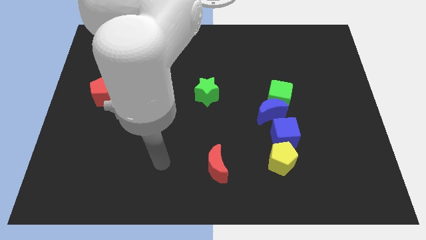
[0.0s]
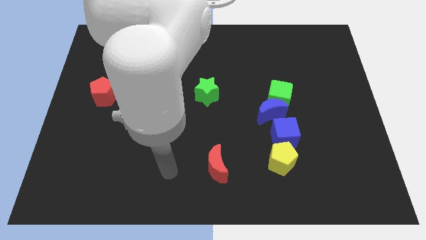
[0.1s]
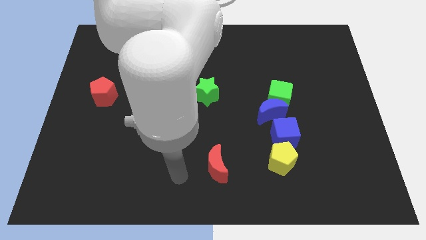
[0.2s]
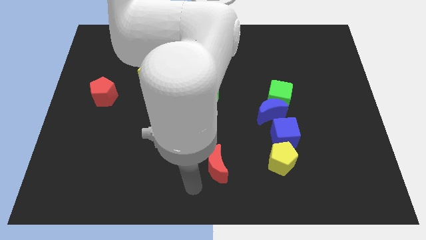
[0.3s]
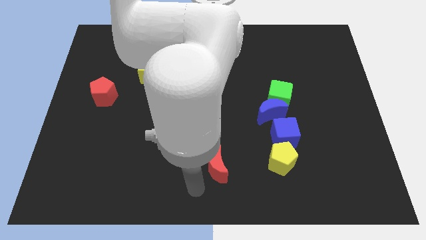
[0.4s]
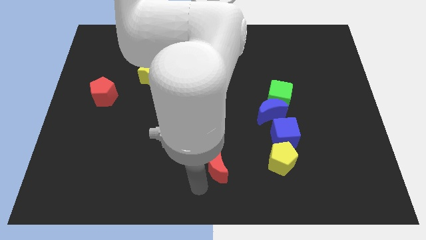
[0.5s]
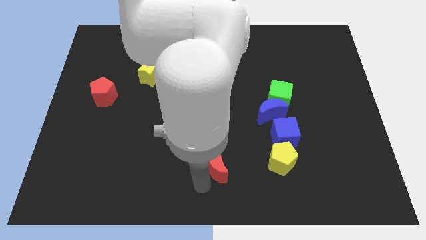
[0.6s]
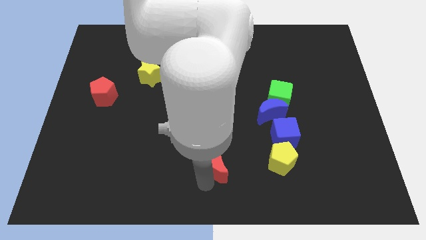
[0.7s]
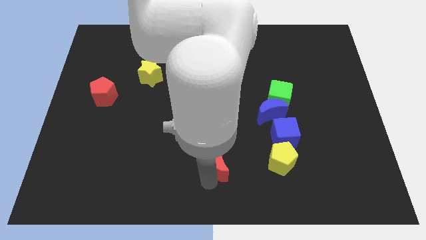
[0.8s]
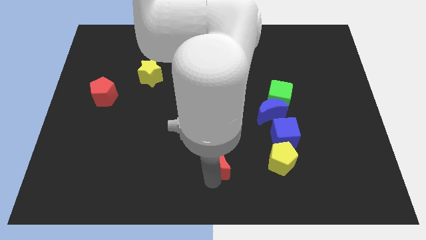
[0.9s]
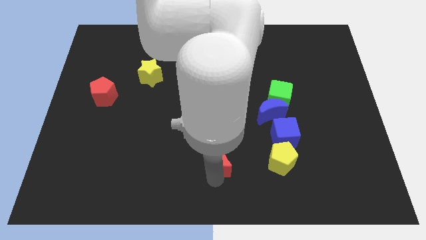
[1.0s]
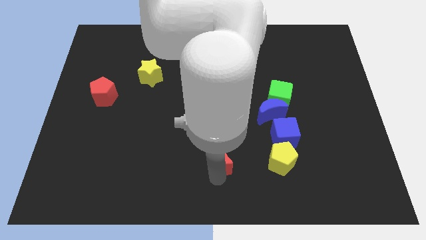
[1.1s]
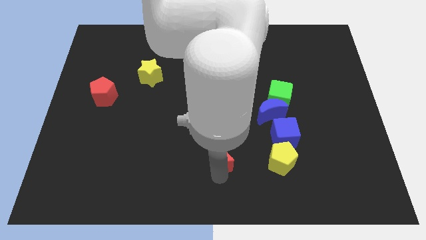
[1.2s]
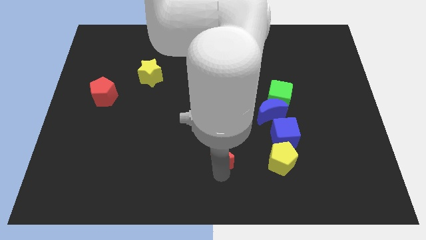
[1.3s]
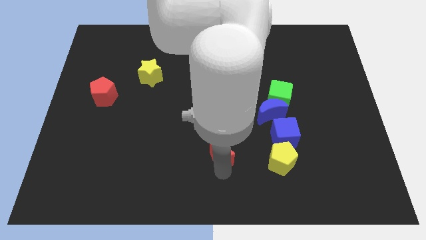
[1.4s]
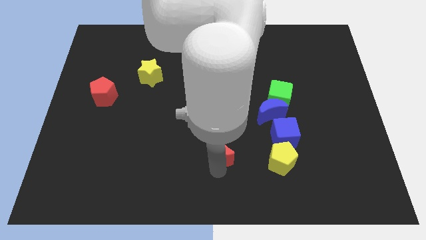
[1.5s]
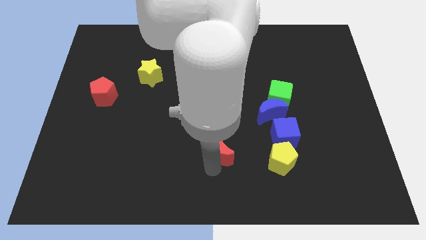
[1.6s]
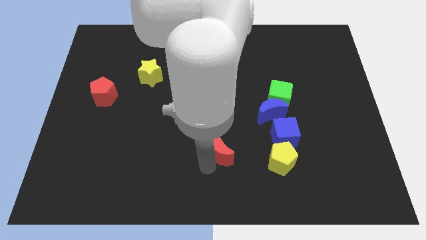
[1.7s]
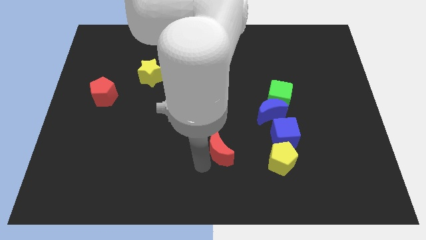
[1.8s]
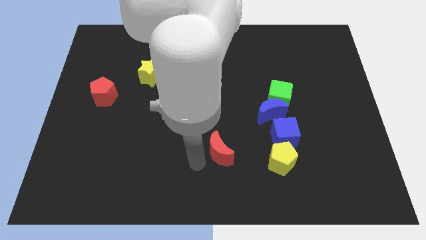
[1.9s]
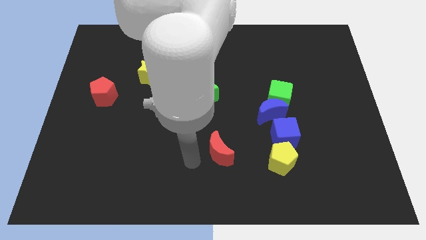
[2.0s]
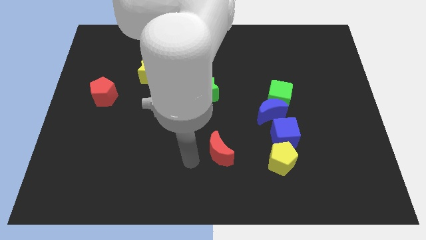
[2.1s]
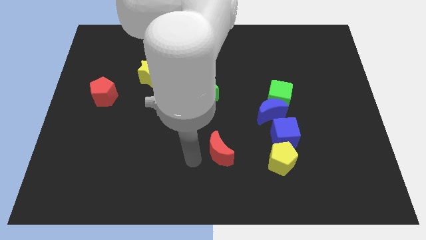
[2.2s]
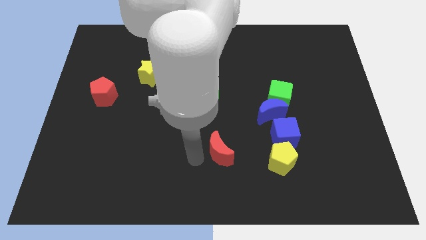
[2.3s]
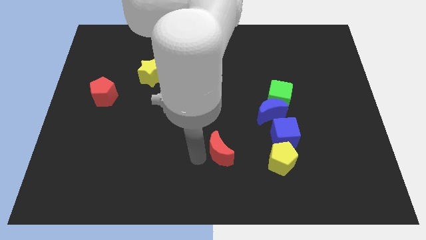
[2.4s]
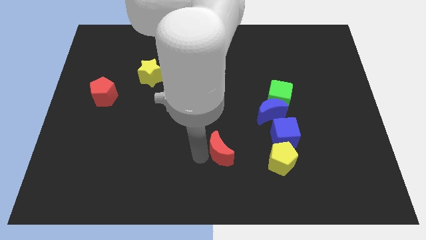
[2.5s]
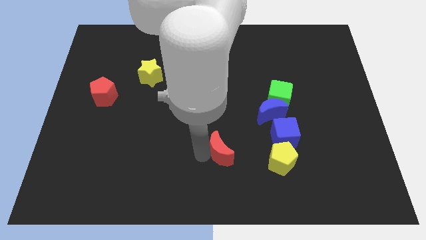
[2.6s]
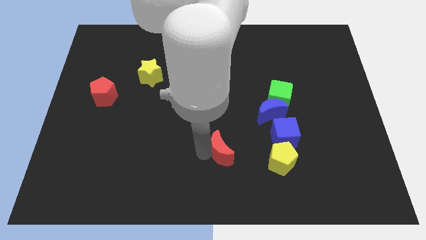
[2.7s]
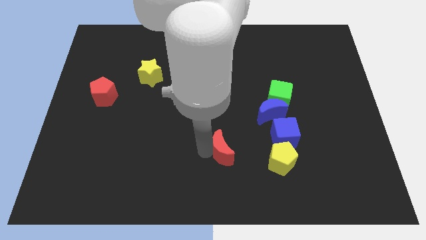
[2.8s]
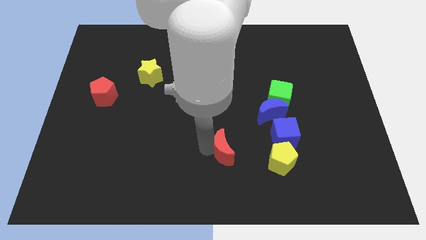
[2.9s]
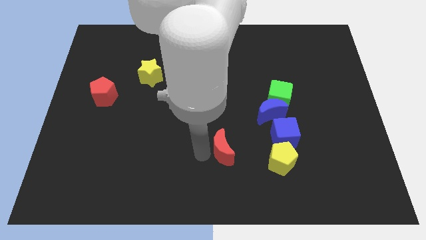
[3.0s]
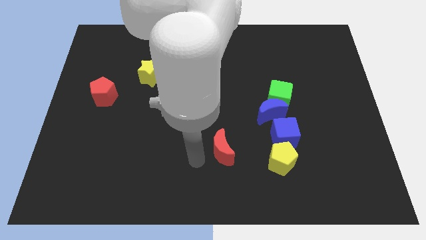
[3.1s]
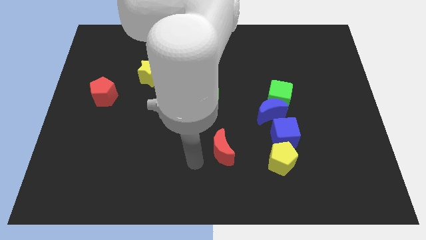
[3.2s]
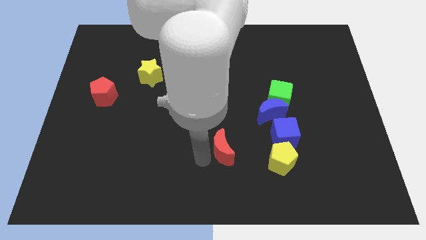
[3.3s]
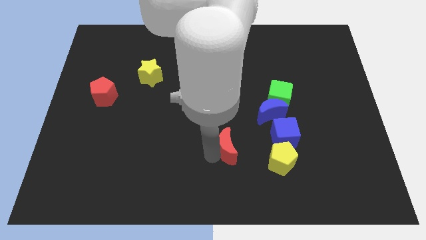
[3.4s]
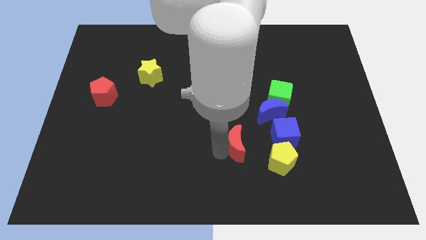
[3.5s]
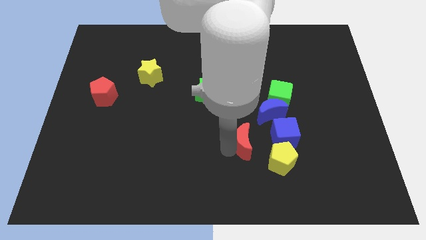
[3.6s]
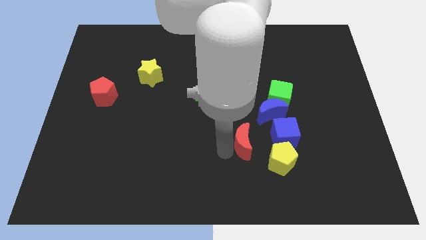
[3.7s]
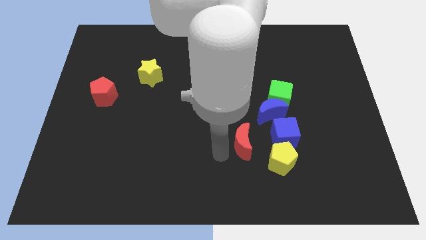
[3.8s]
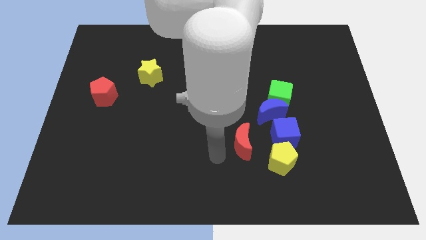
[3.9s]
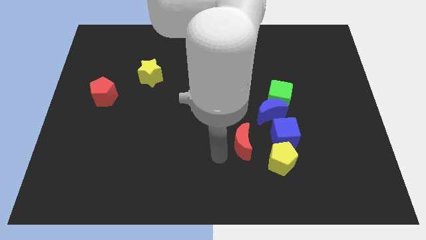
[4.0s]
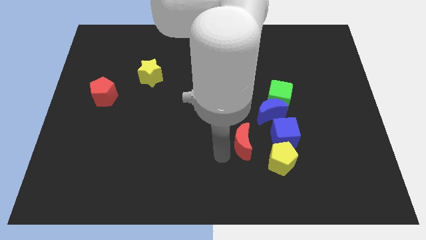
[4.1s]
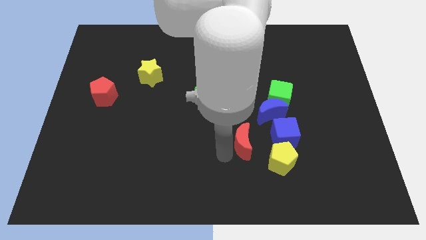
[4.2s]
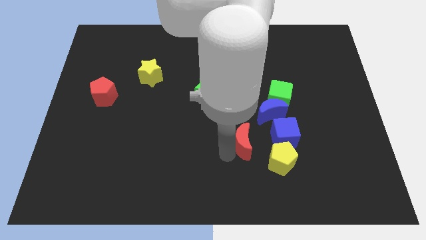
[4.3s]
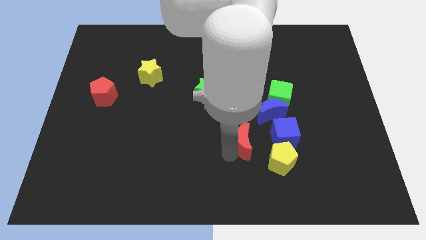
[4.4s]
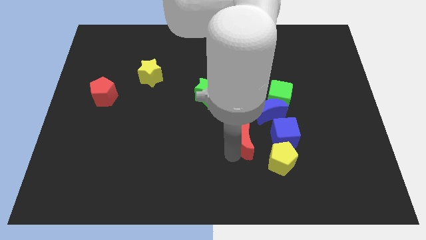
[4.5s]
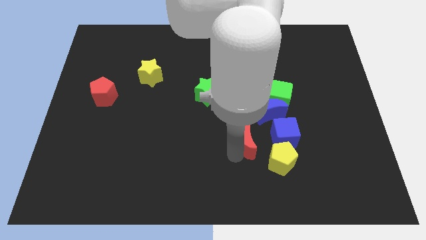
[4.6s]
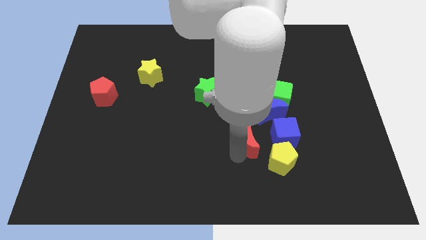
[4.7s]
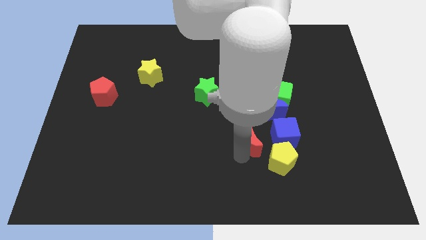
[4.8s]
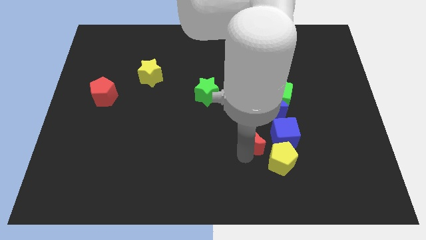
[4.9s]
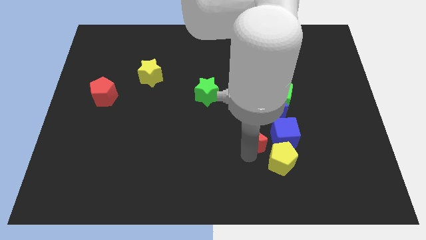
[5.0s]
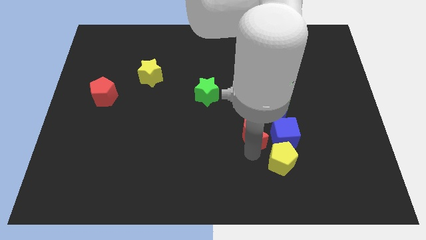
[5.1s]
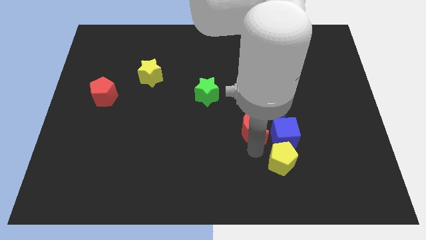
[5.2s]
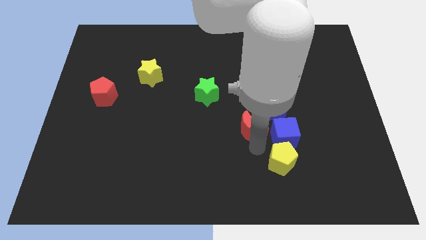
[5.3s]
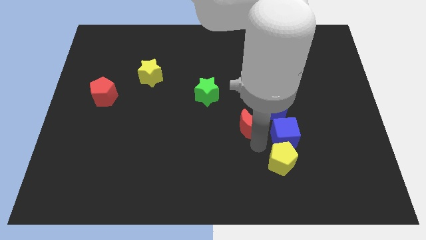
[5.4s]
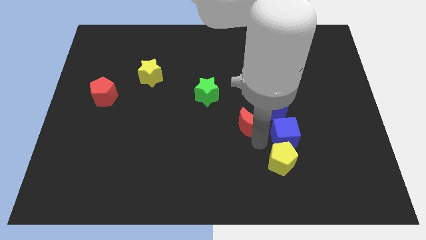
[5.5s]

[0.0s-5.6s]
push the red moon to the blue moon

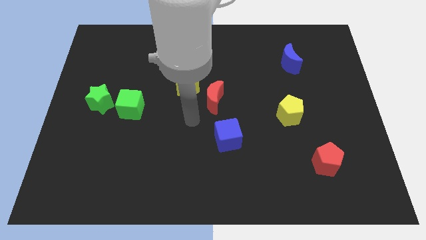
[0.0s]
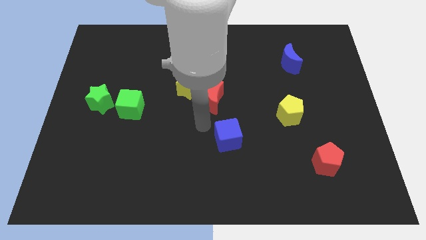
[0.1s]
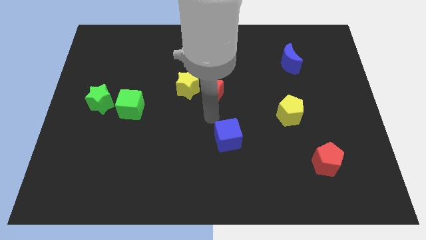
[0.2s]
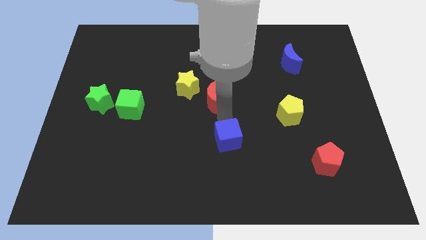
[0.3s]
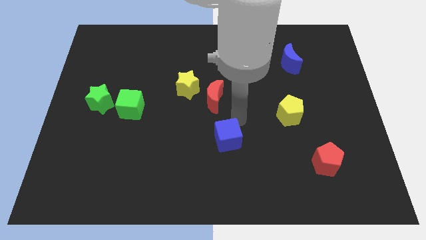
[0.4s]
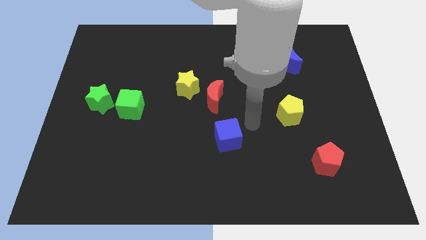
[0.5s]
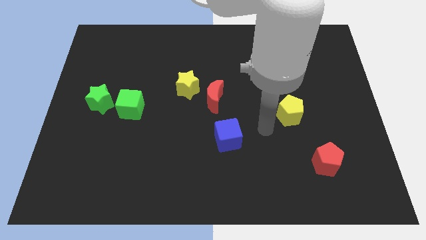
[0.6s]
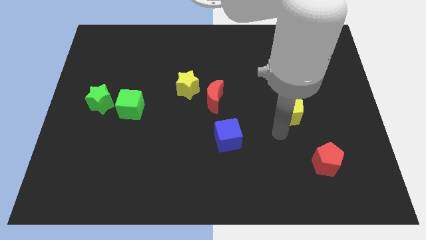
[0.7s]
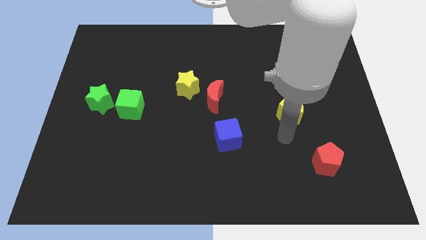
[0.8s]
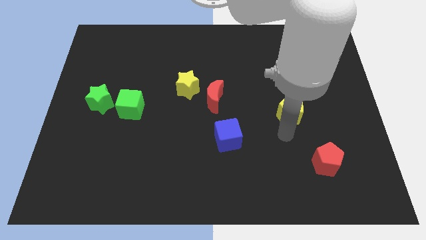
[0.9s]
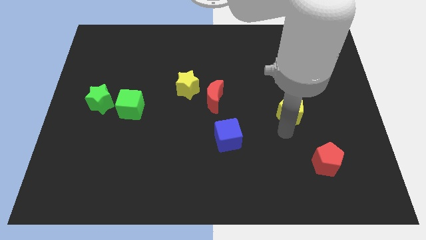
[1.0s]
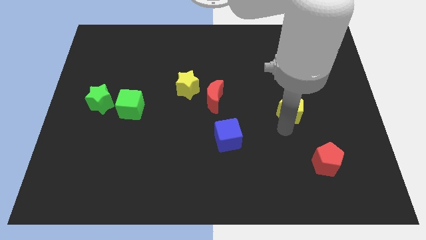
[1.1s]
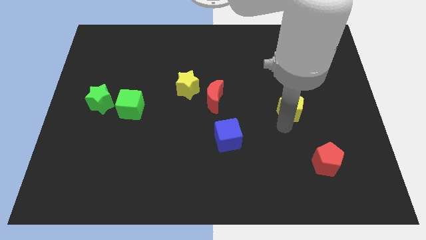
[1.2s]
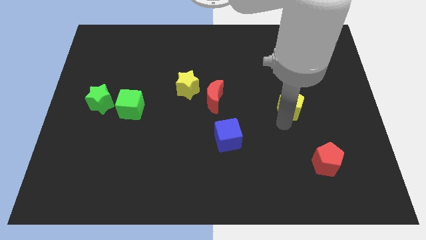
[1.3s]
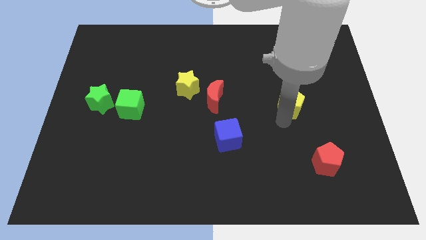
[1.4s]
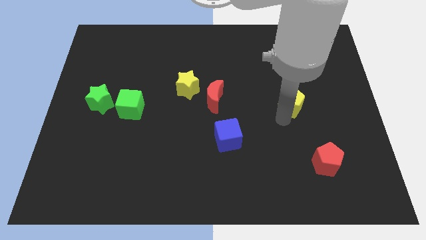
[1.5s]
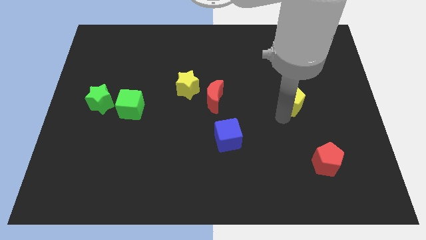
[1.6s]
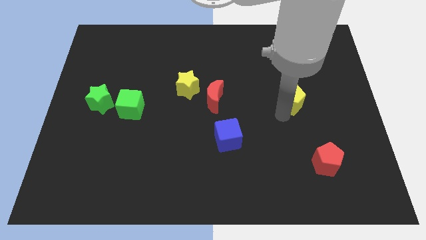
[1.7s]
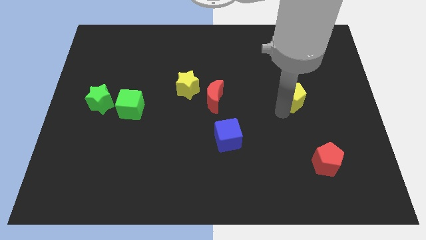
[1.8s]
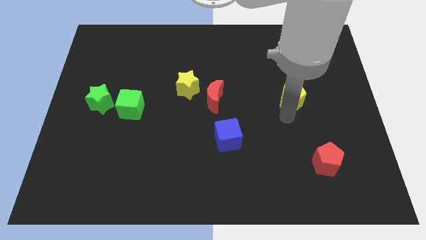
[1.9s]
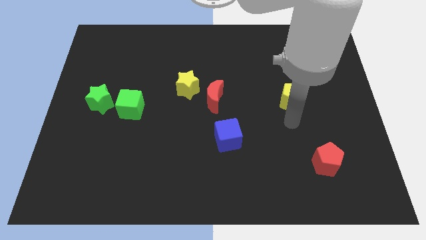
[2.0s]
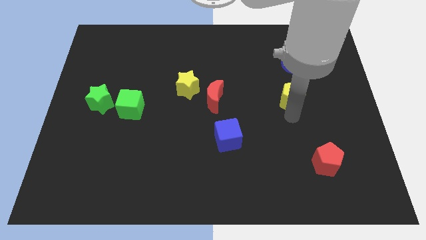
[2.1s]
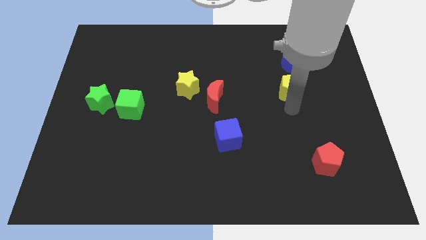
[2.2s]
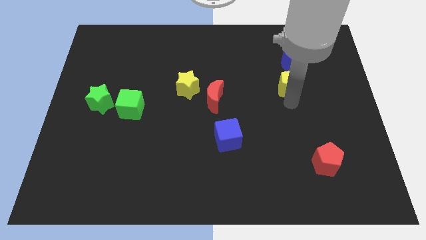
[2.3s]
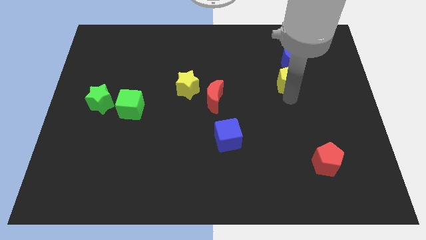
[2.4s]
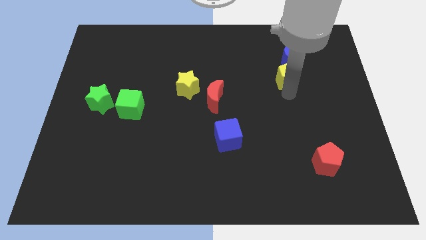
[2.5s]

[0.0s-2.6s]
push the yellow pentagon next to the blue moon
